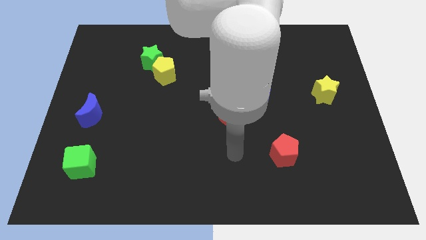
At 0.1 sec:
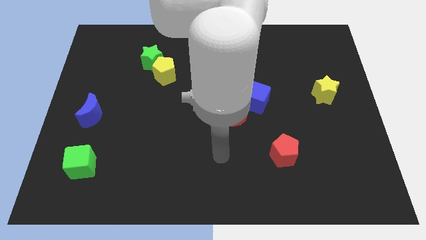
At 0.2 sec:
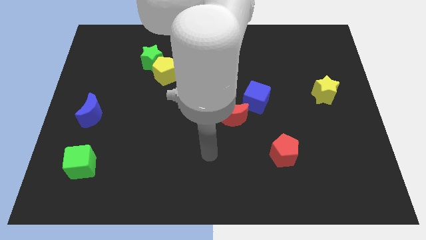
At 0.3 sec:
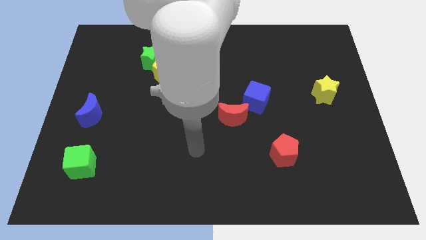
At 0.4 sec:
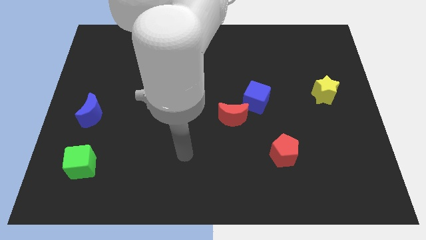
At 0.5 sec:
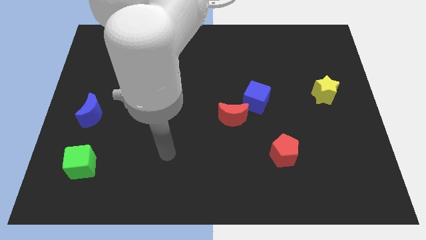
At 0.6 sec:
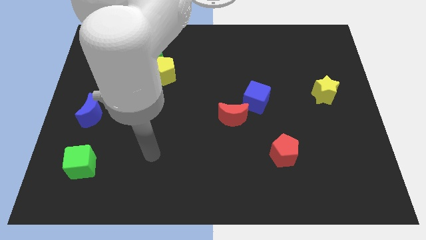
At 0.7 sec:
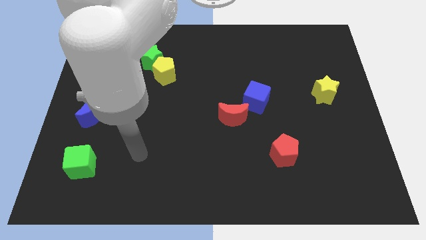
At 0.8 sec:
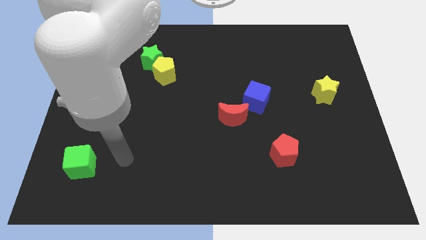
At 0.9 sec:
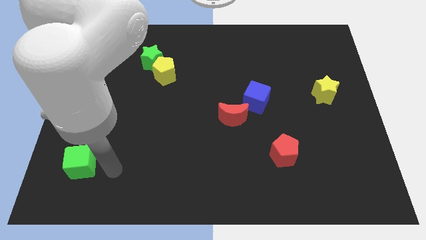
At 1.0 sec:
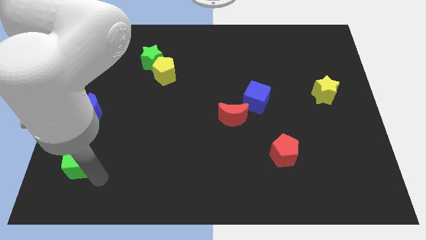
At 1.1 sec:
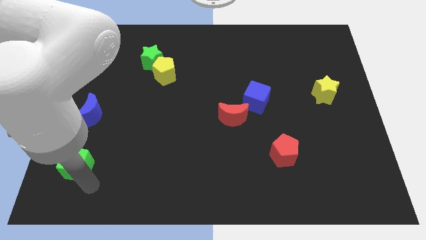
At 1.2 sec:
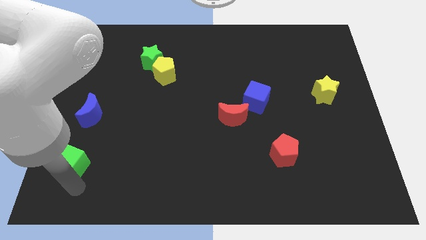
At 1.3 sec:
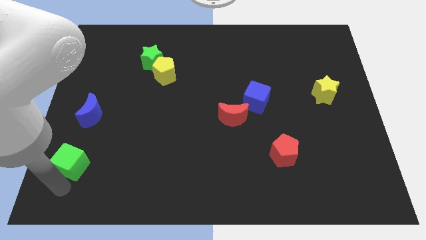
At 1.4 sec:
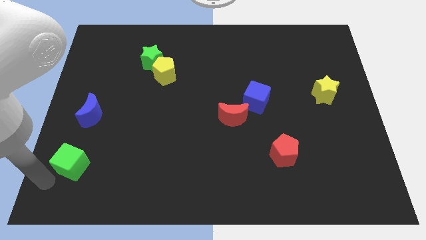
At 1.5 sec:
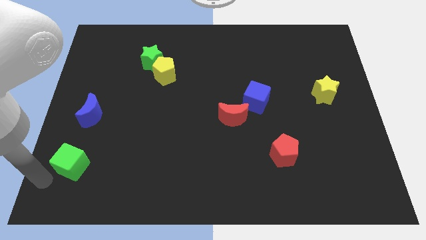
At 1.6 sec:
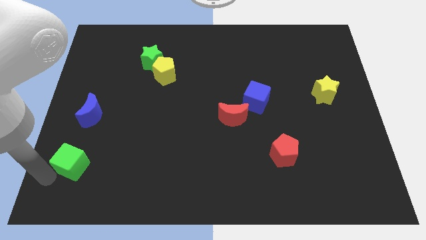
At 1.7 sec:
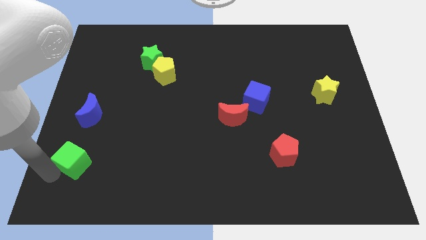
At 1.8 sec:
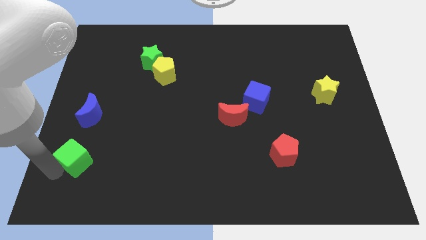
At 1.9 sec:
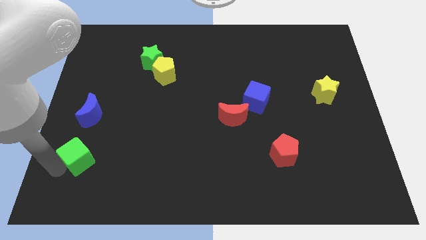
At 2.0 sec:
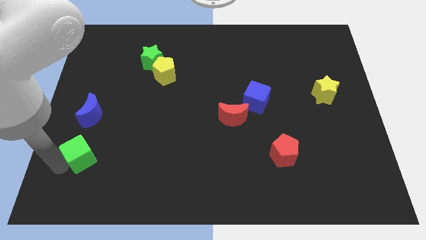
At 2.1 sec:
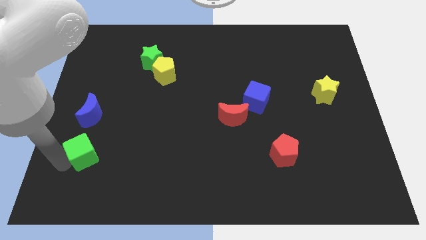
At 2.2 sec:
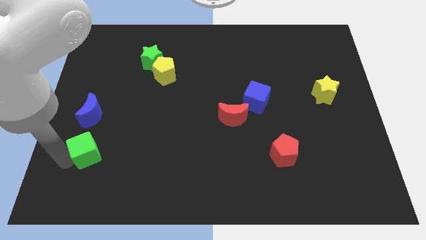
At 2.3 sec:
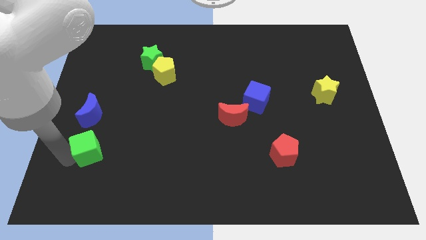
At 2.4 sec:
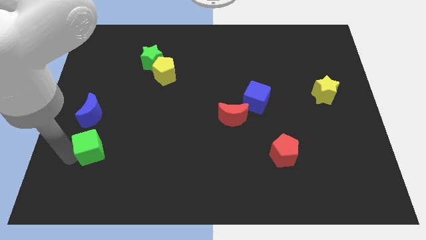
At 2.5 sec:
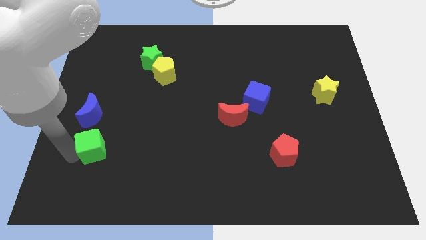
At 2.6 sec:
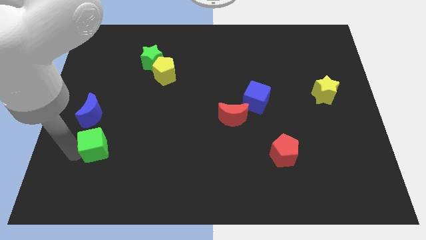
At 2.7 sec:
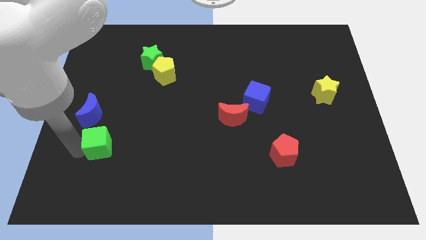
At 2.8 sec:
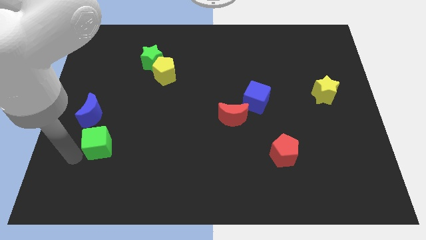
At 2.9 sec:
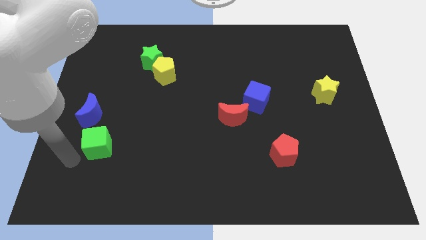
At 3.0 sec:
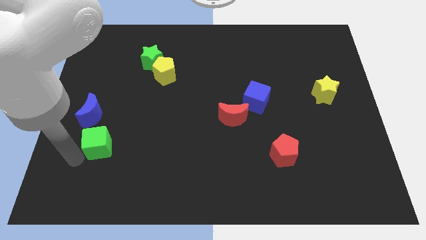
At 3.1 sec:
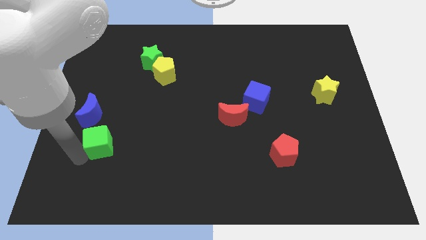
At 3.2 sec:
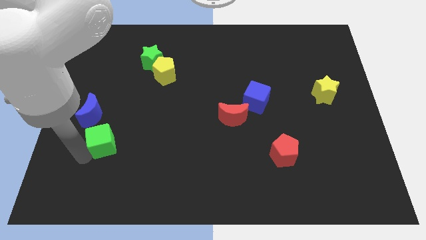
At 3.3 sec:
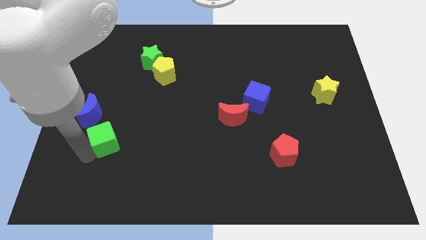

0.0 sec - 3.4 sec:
slightly push the green cube diagonally upwards and to the right

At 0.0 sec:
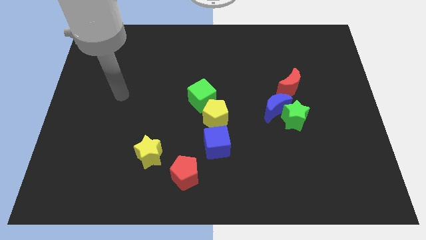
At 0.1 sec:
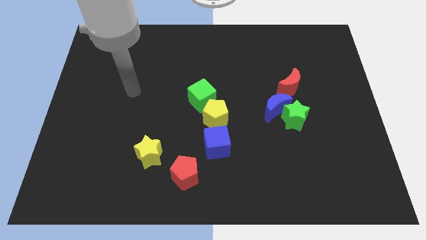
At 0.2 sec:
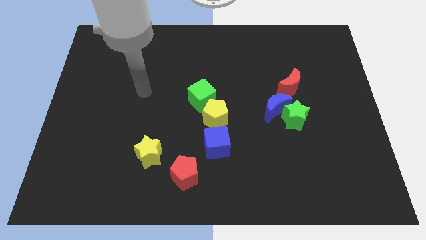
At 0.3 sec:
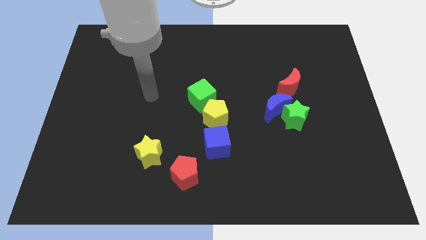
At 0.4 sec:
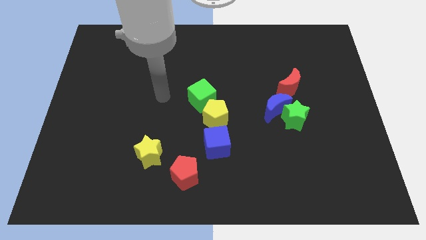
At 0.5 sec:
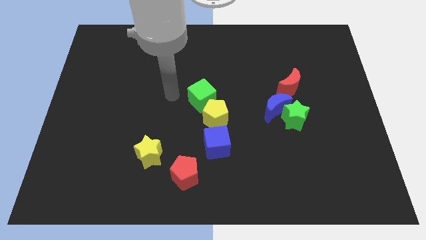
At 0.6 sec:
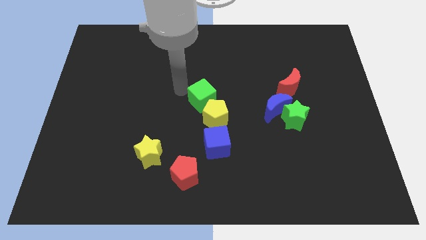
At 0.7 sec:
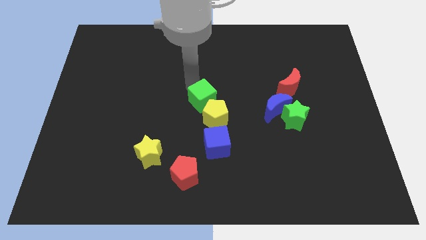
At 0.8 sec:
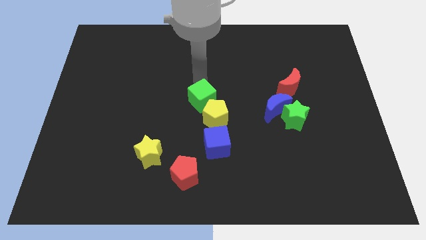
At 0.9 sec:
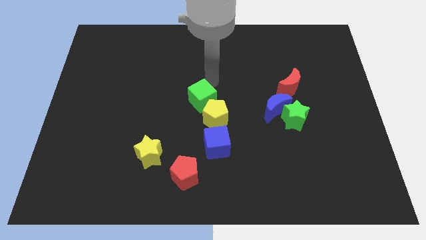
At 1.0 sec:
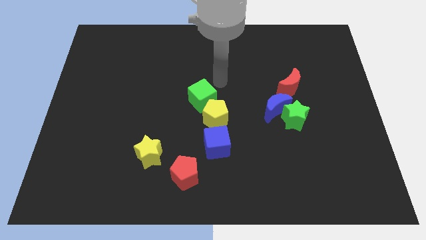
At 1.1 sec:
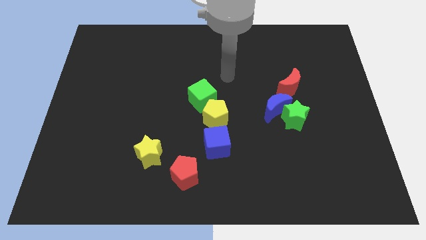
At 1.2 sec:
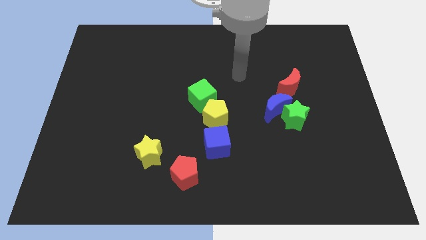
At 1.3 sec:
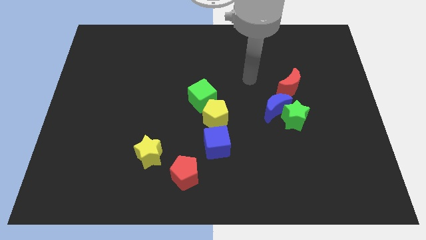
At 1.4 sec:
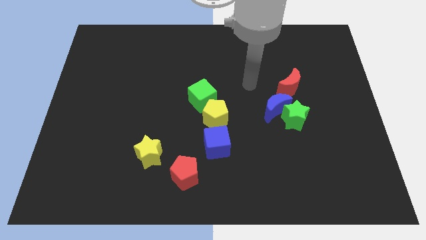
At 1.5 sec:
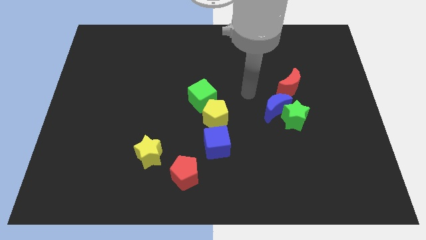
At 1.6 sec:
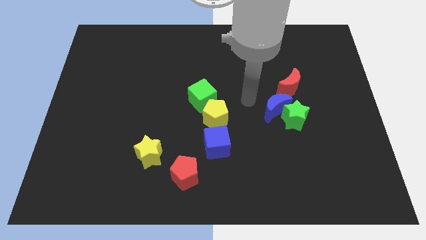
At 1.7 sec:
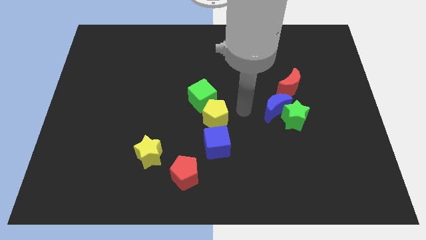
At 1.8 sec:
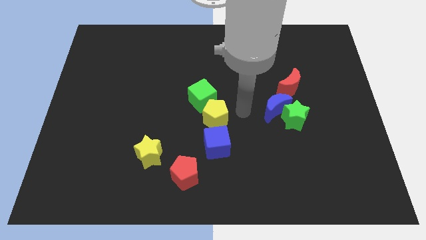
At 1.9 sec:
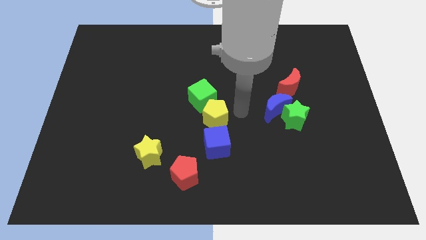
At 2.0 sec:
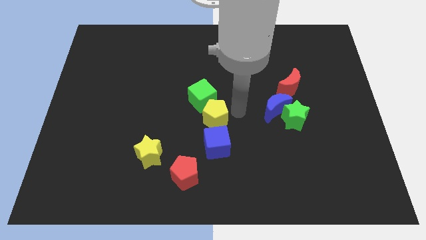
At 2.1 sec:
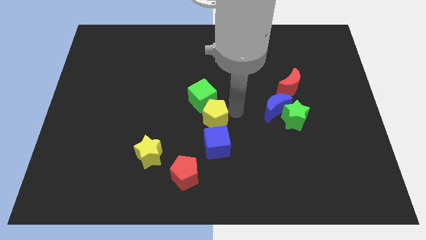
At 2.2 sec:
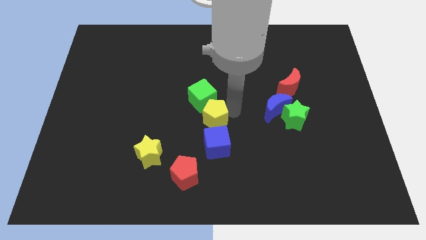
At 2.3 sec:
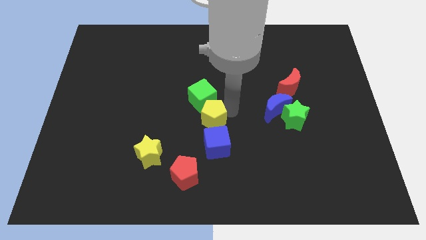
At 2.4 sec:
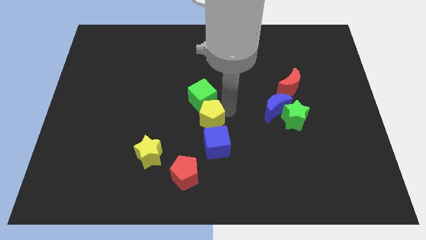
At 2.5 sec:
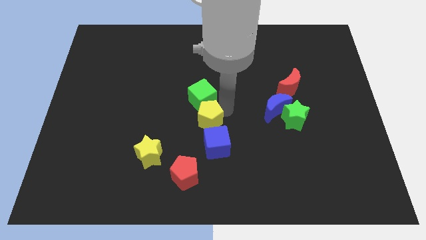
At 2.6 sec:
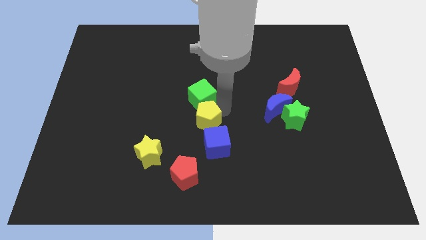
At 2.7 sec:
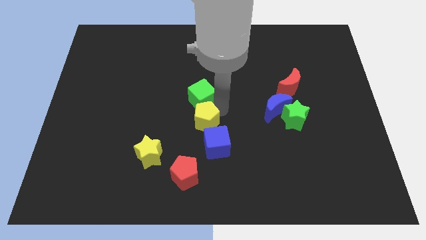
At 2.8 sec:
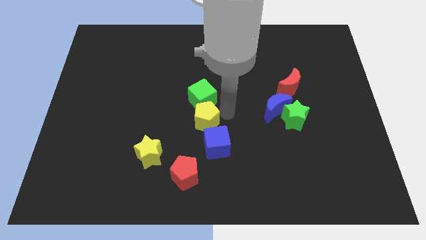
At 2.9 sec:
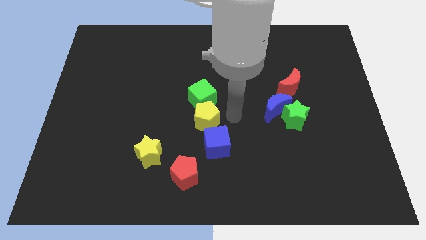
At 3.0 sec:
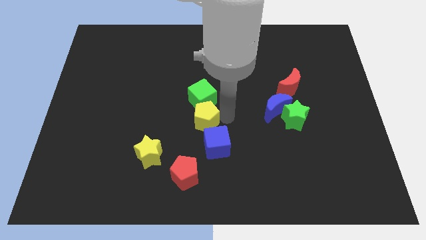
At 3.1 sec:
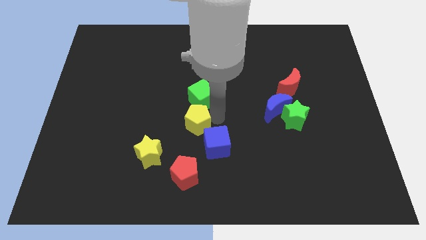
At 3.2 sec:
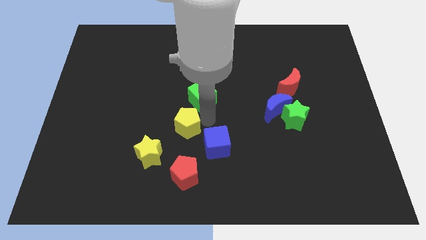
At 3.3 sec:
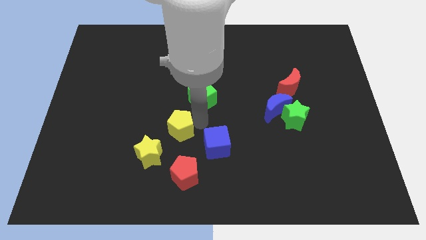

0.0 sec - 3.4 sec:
slide the yellow pentagon left slightly

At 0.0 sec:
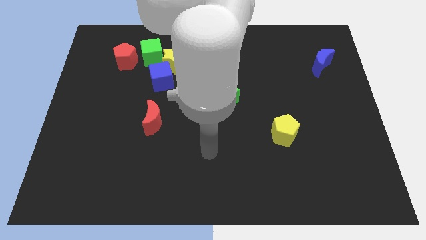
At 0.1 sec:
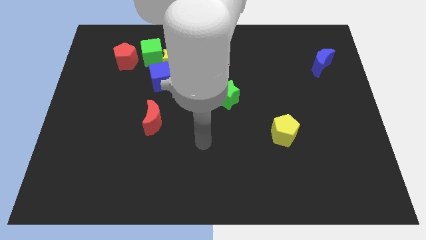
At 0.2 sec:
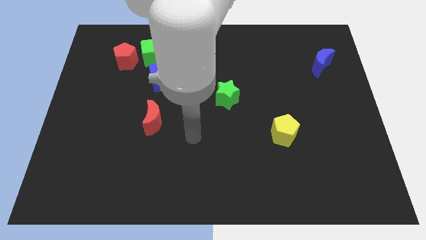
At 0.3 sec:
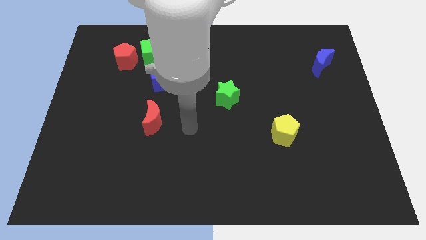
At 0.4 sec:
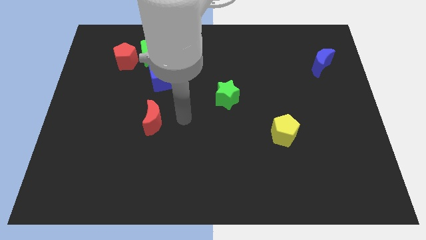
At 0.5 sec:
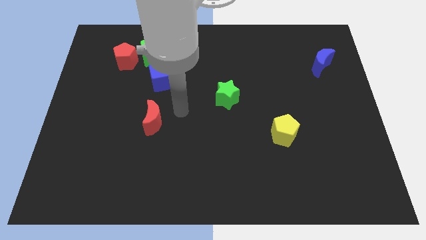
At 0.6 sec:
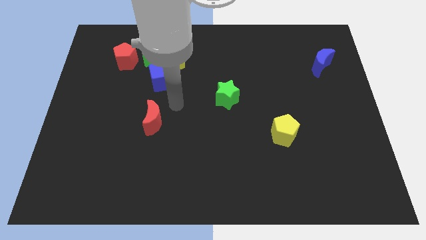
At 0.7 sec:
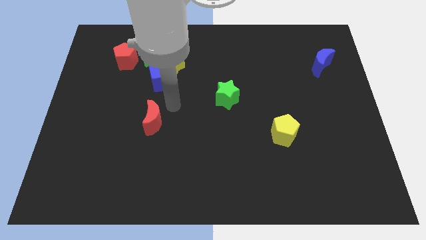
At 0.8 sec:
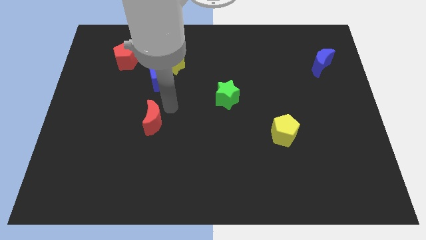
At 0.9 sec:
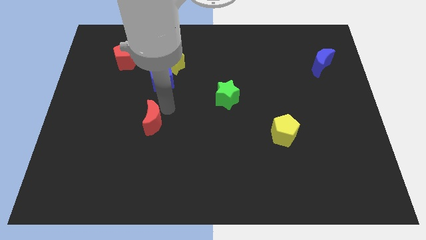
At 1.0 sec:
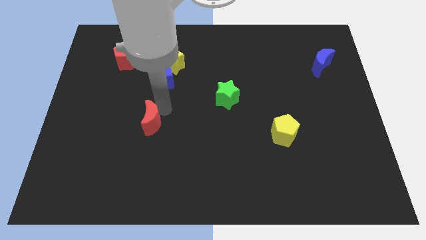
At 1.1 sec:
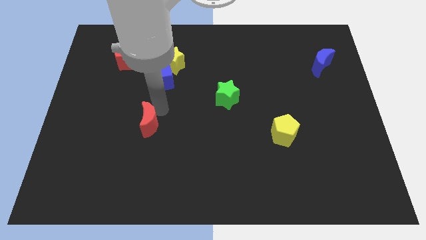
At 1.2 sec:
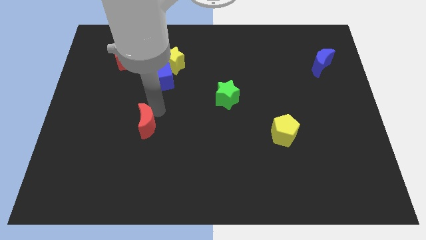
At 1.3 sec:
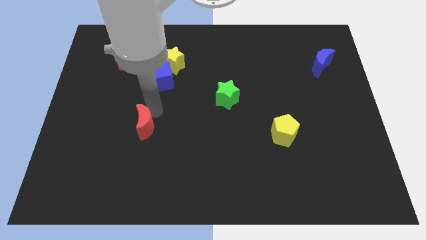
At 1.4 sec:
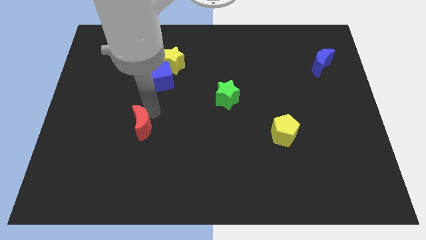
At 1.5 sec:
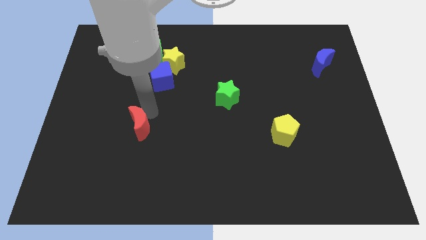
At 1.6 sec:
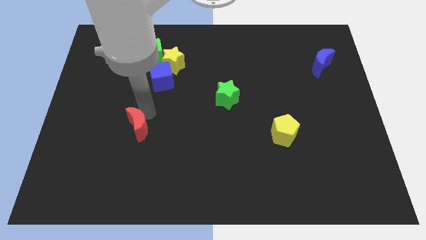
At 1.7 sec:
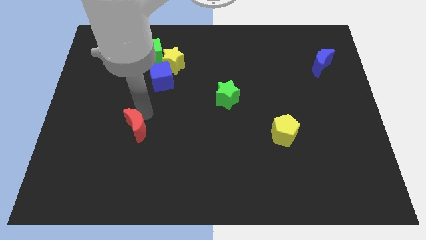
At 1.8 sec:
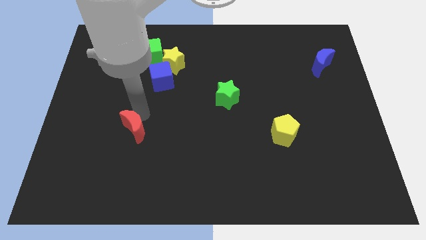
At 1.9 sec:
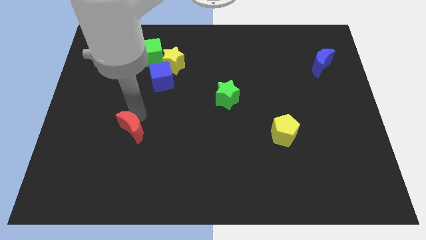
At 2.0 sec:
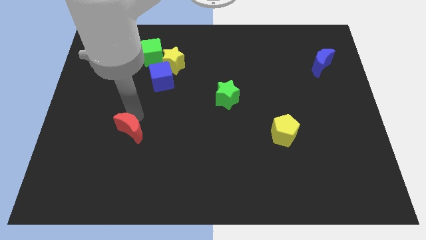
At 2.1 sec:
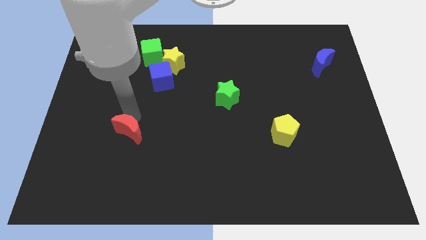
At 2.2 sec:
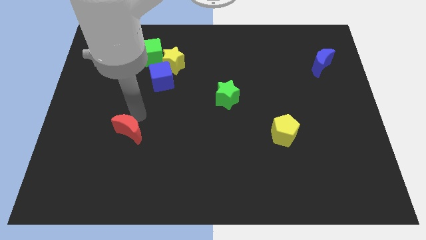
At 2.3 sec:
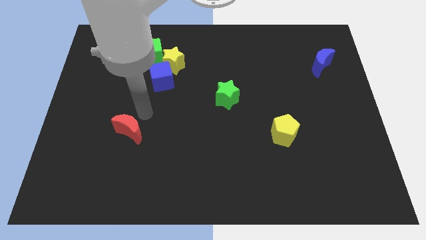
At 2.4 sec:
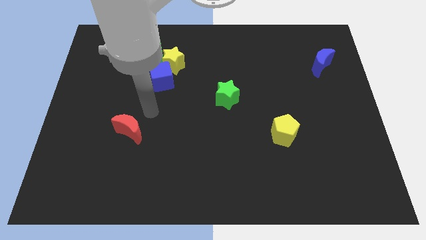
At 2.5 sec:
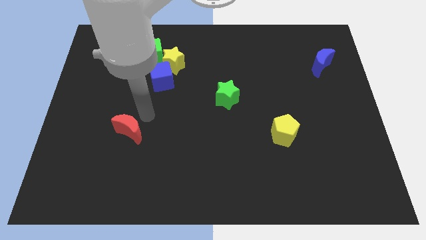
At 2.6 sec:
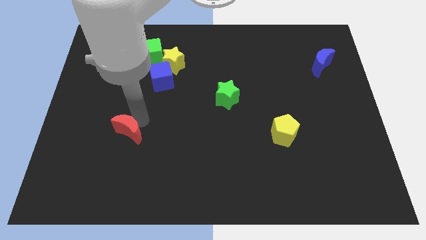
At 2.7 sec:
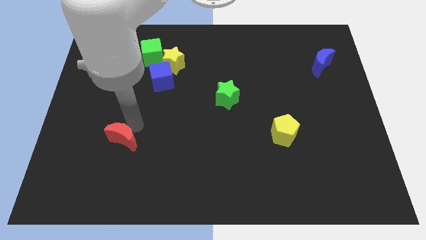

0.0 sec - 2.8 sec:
slightly move the red moon down and then to the left
